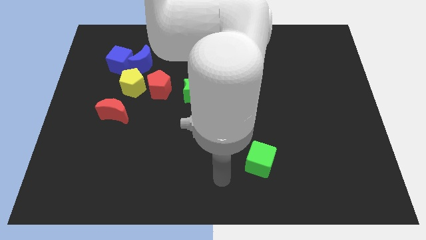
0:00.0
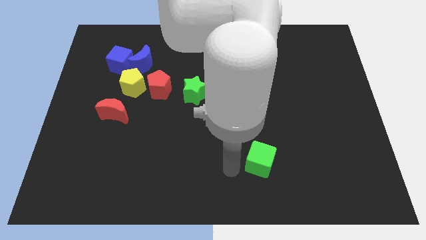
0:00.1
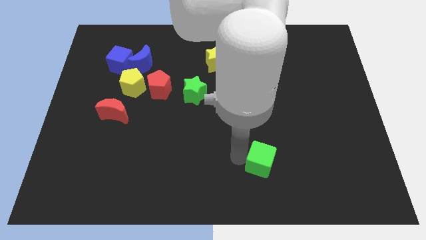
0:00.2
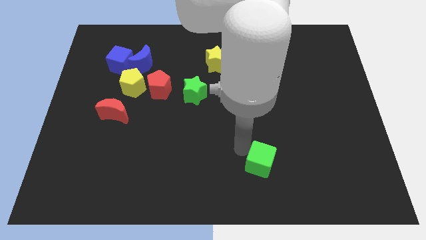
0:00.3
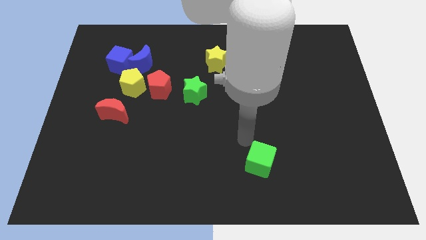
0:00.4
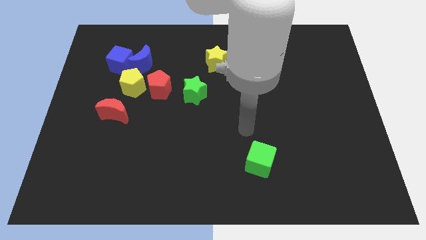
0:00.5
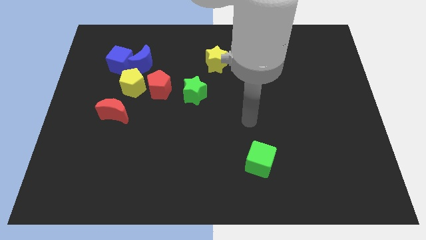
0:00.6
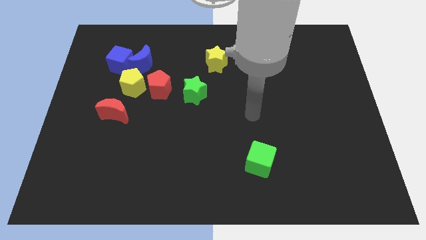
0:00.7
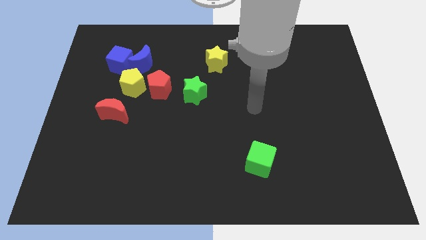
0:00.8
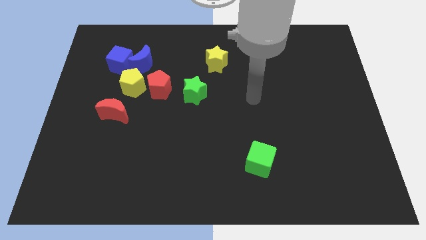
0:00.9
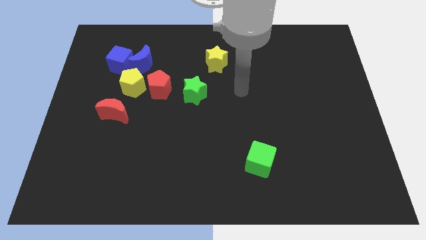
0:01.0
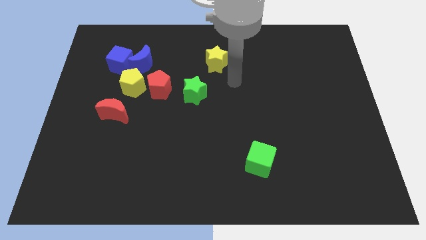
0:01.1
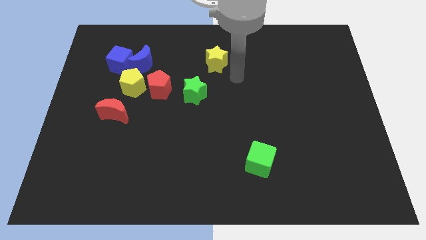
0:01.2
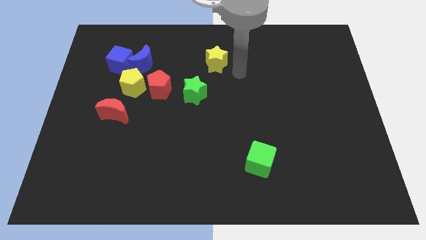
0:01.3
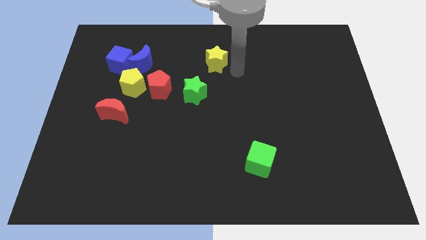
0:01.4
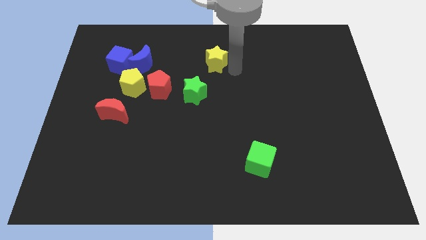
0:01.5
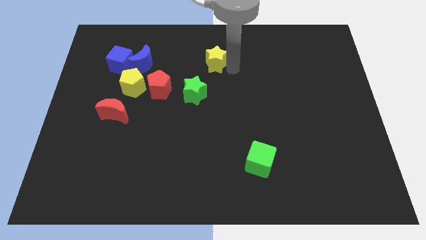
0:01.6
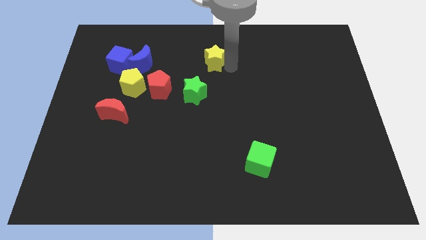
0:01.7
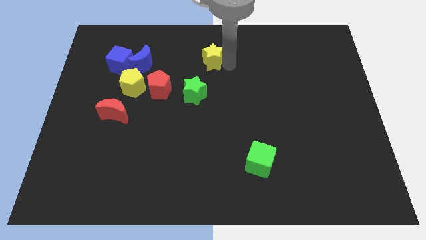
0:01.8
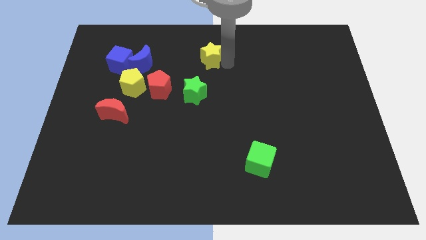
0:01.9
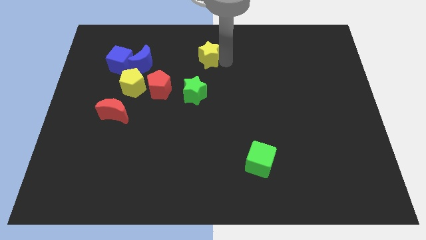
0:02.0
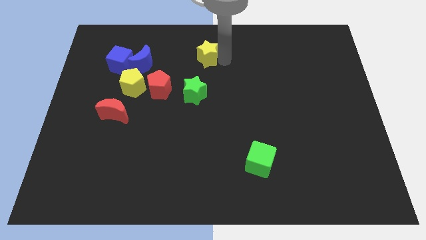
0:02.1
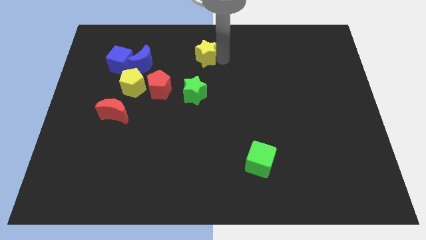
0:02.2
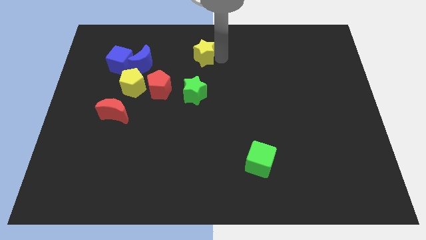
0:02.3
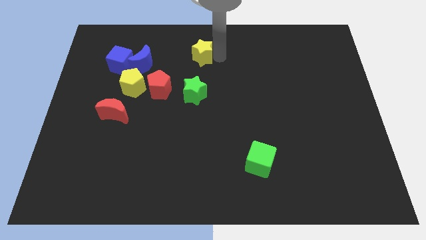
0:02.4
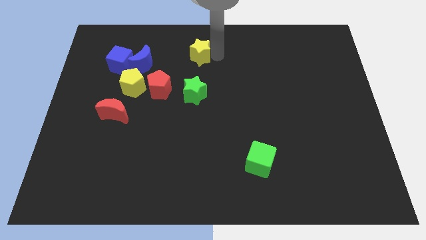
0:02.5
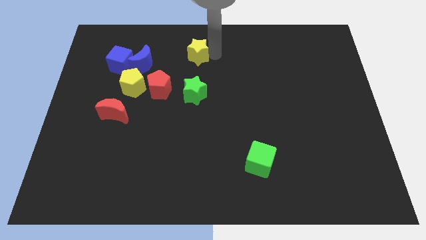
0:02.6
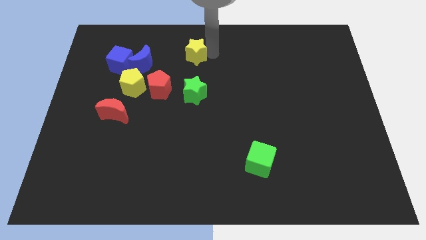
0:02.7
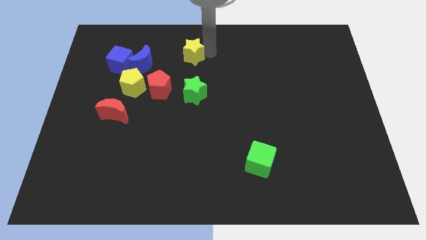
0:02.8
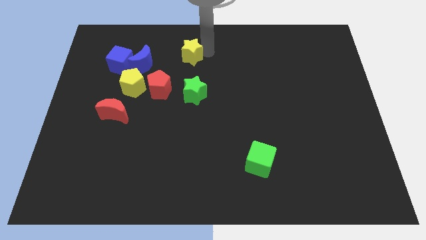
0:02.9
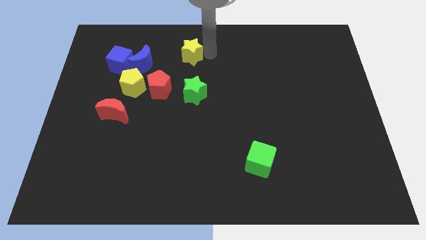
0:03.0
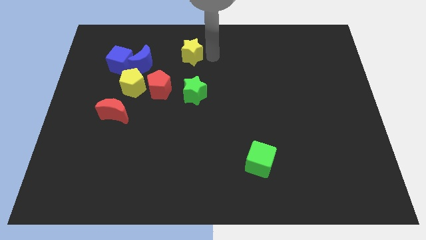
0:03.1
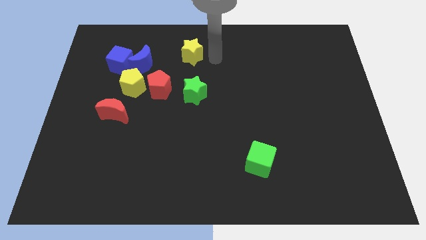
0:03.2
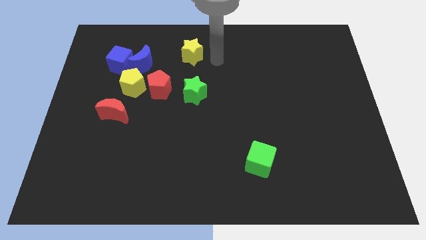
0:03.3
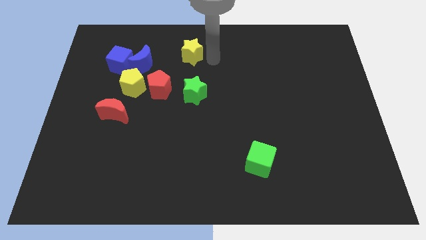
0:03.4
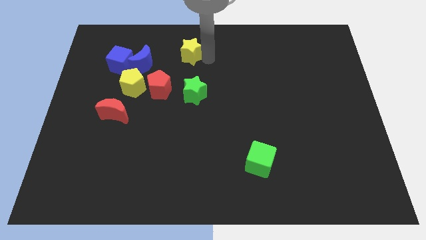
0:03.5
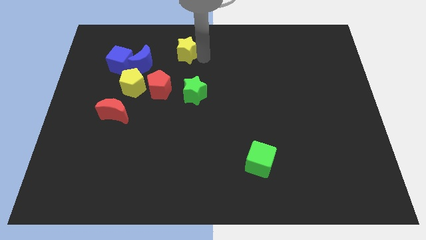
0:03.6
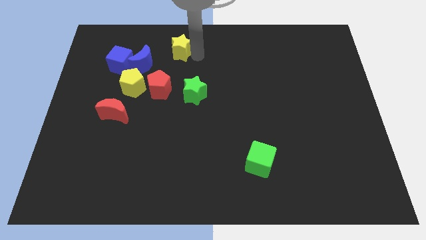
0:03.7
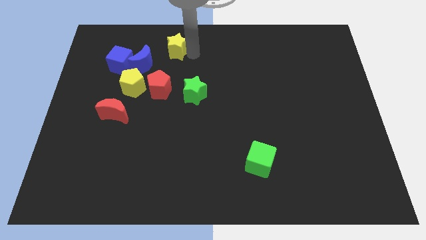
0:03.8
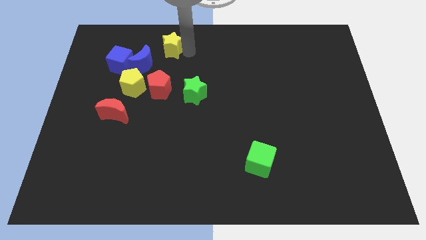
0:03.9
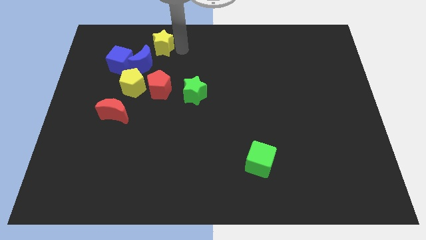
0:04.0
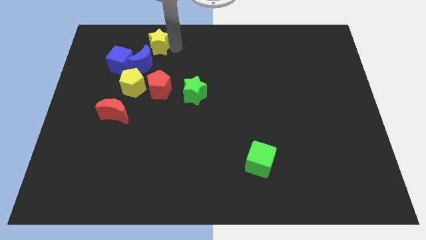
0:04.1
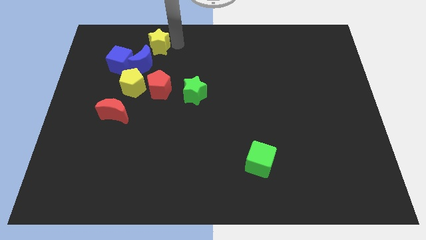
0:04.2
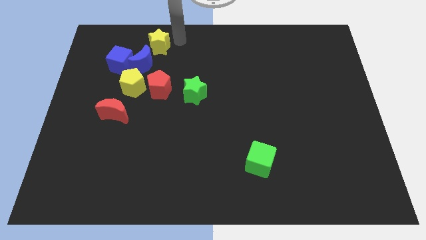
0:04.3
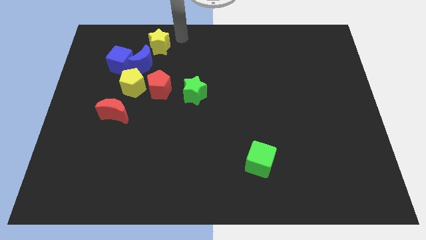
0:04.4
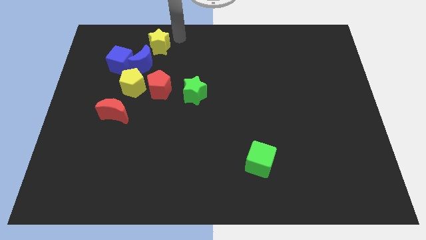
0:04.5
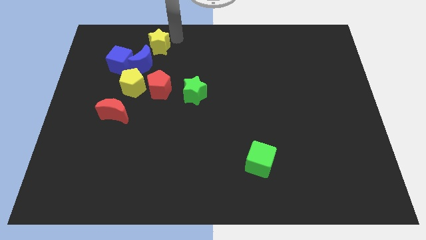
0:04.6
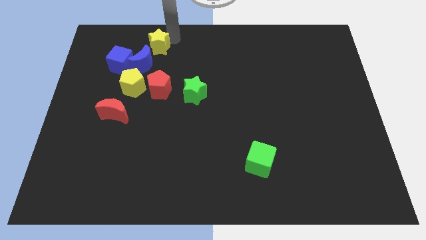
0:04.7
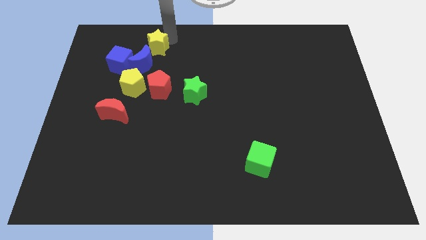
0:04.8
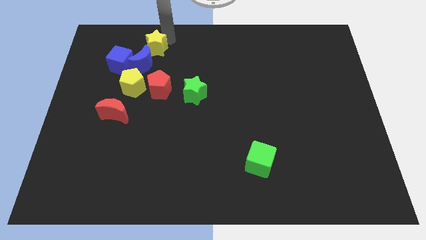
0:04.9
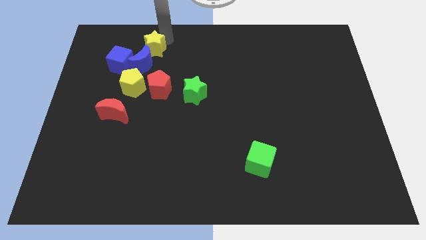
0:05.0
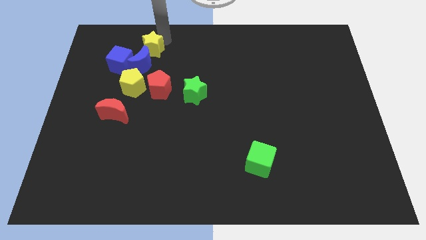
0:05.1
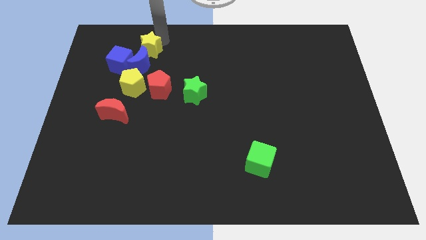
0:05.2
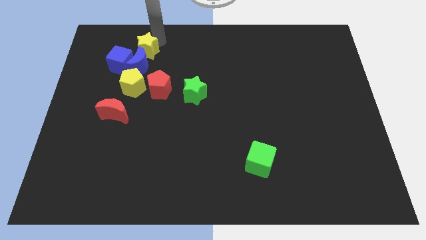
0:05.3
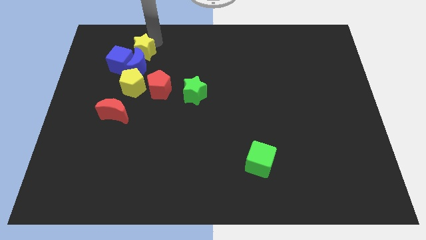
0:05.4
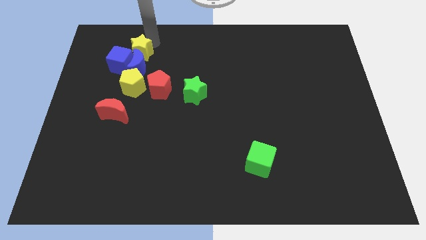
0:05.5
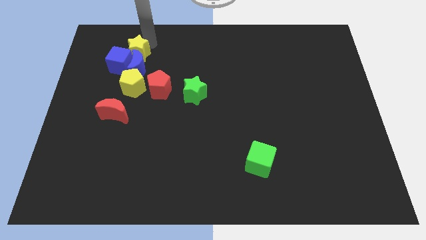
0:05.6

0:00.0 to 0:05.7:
slide the yellow star next to the blue cube

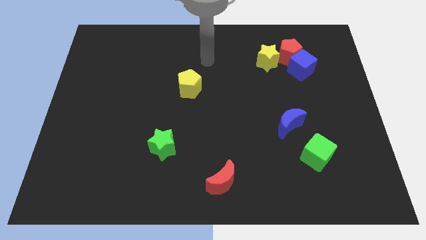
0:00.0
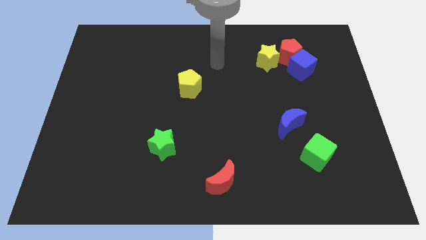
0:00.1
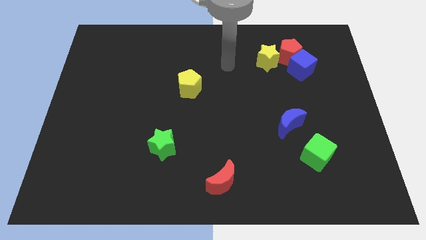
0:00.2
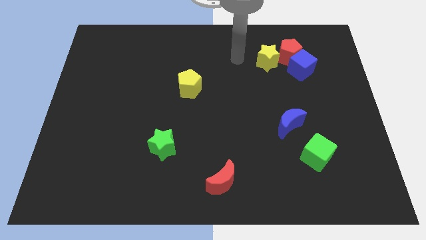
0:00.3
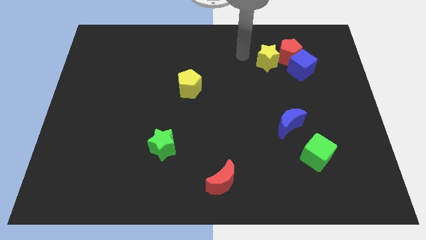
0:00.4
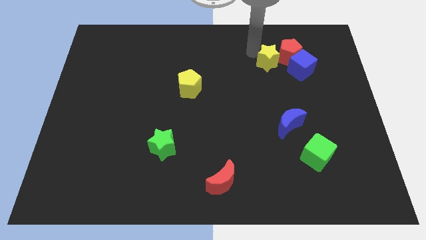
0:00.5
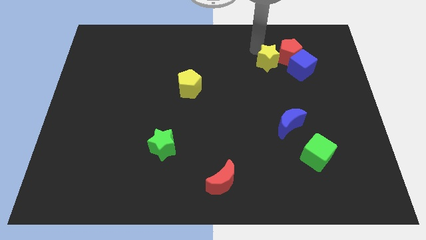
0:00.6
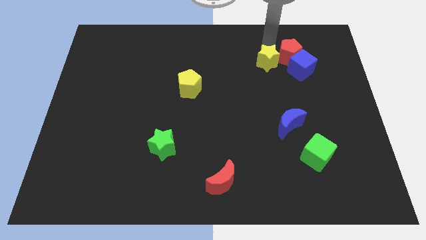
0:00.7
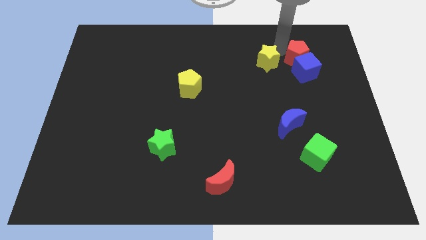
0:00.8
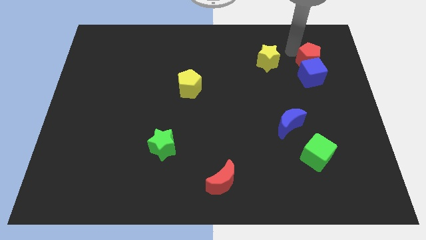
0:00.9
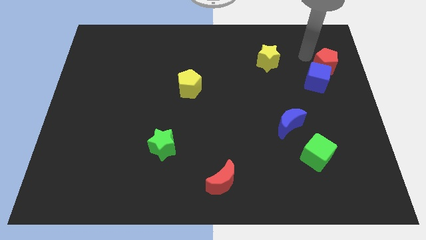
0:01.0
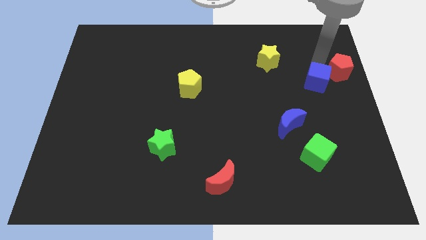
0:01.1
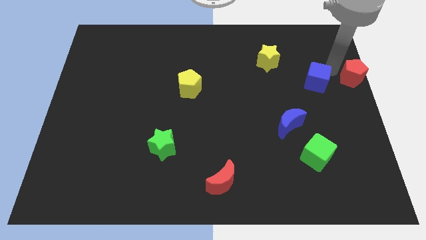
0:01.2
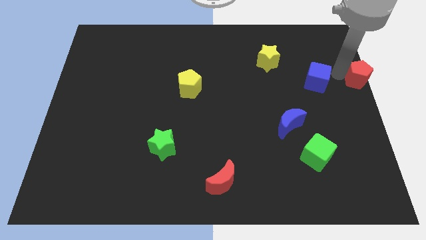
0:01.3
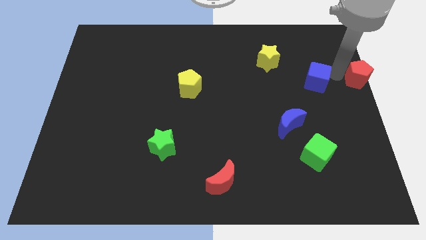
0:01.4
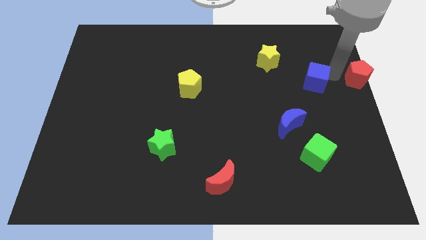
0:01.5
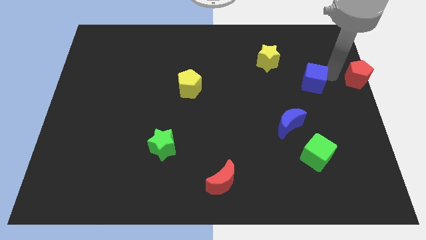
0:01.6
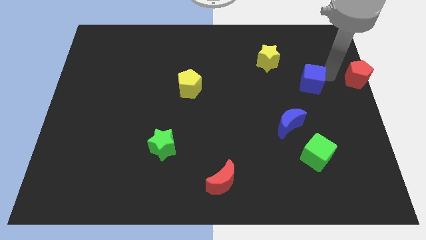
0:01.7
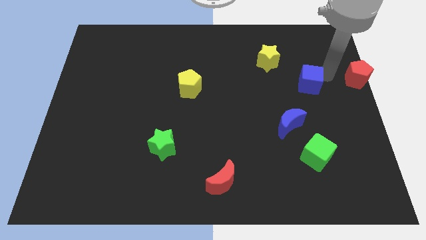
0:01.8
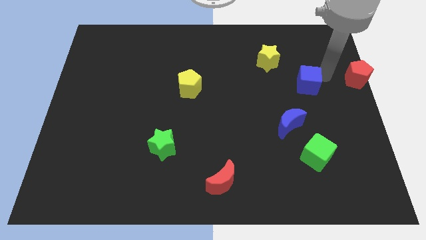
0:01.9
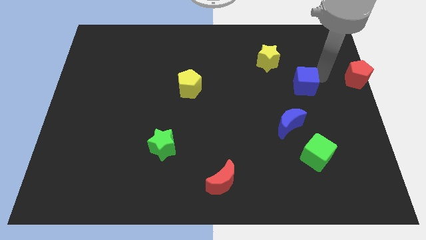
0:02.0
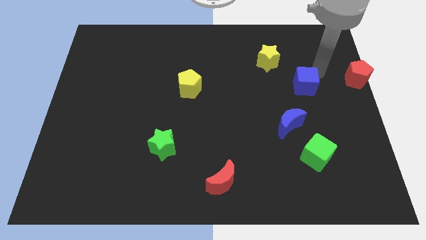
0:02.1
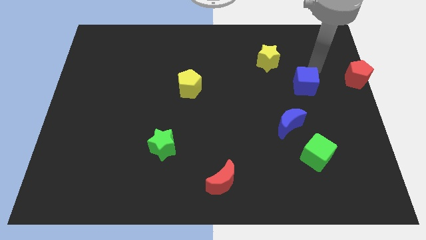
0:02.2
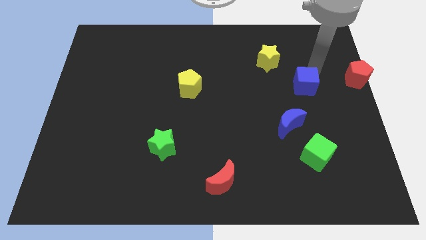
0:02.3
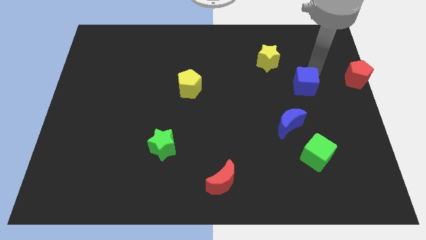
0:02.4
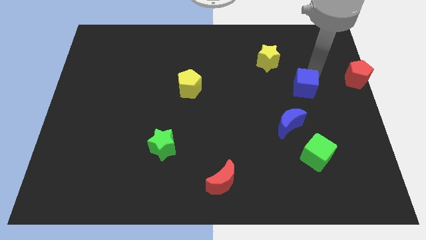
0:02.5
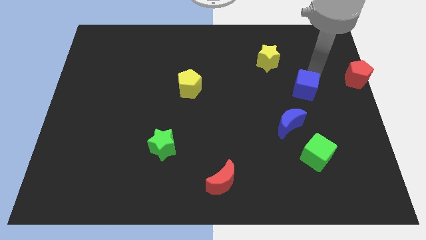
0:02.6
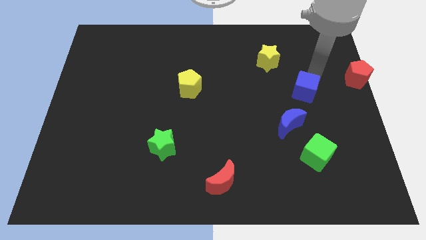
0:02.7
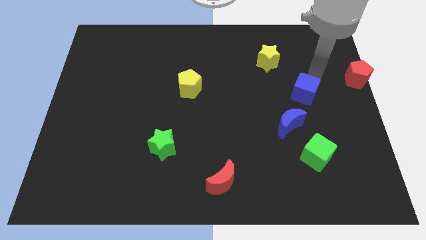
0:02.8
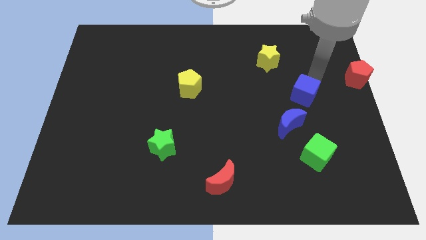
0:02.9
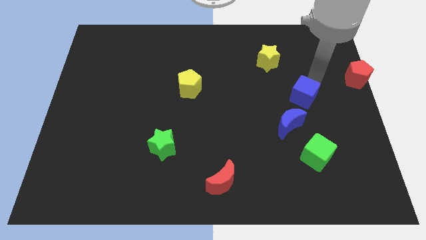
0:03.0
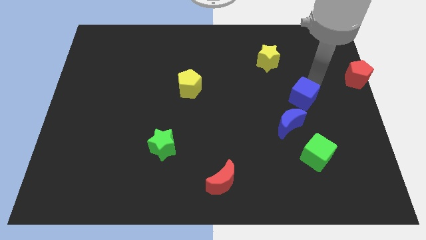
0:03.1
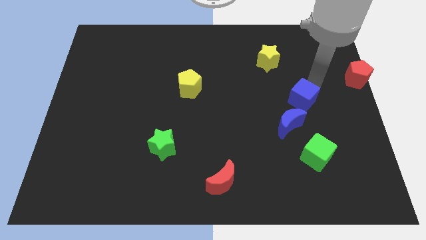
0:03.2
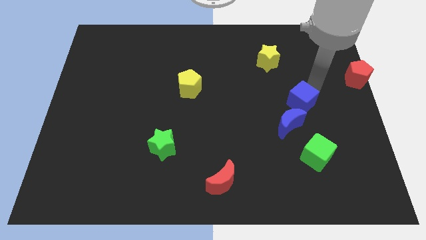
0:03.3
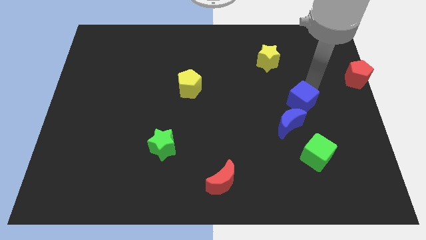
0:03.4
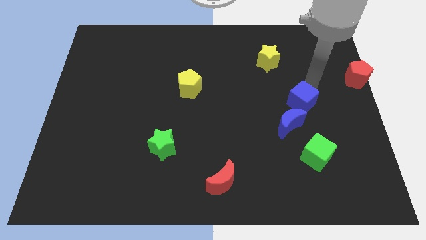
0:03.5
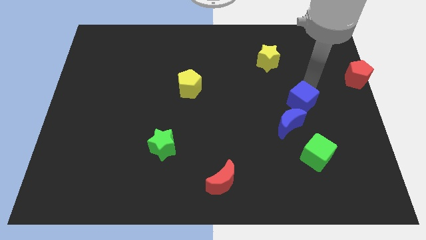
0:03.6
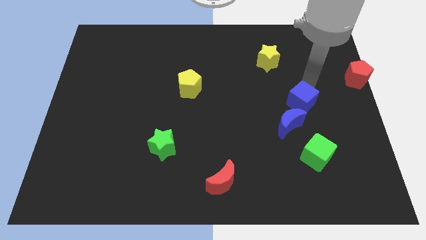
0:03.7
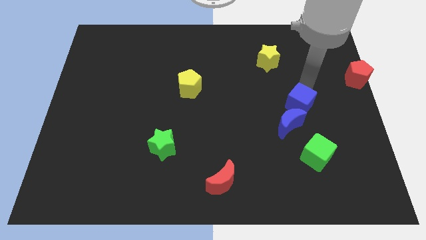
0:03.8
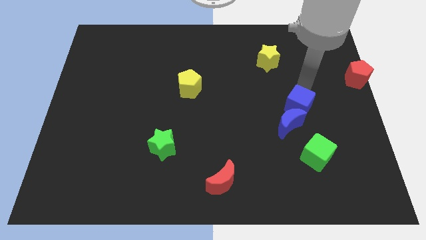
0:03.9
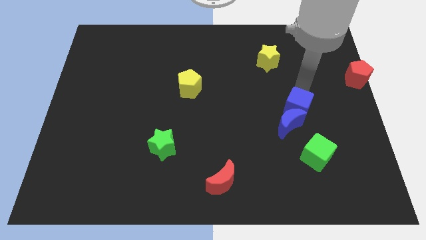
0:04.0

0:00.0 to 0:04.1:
put the blue cube to the blue moon
